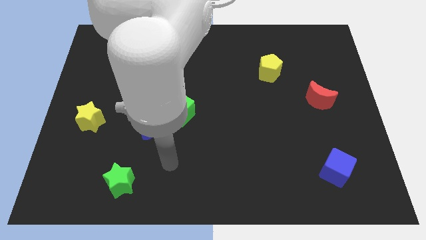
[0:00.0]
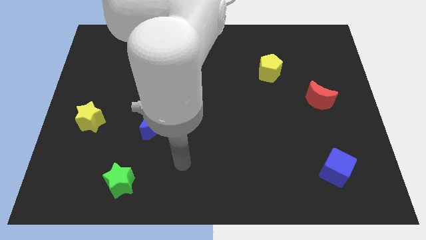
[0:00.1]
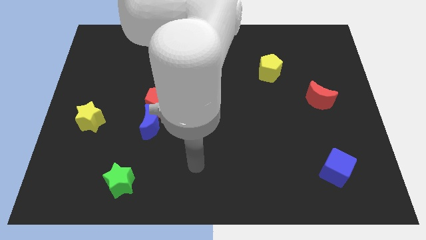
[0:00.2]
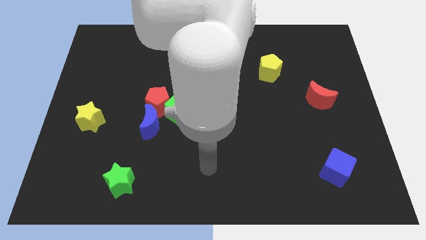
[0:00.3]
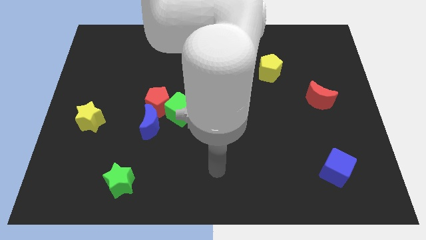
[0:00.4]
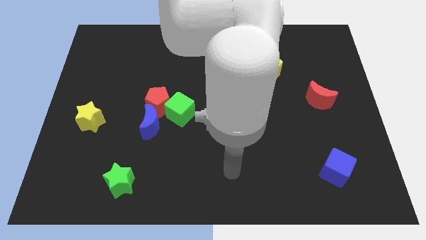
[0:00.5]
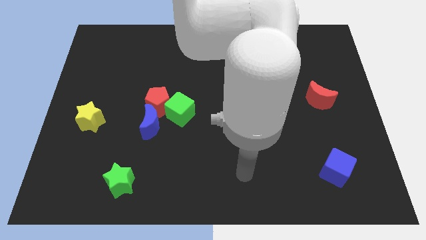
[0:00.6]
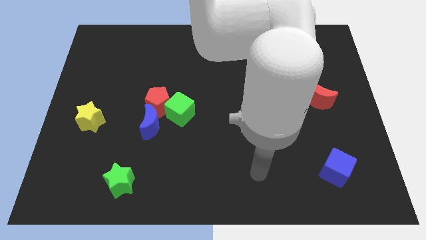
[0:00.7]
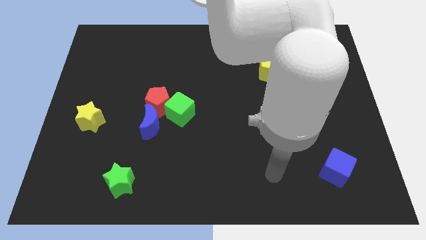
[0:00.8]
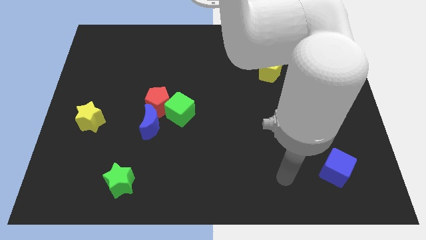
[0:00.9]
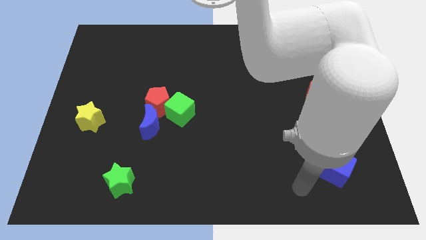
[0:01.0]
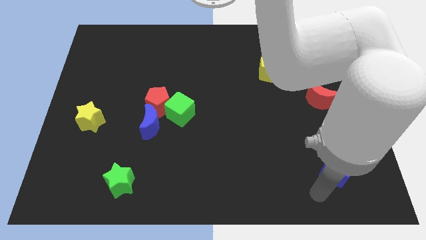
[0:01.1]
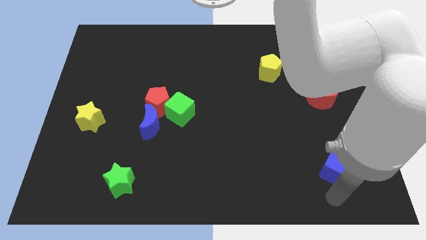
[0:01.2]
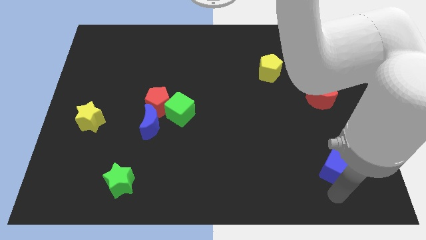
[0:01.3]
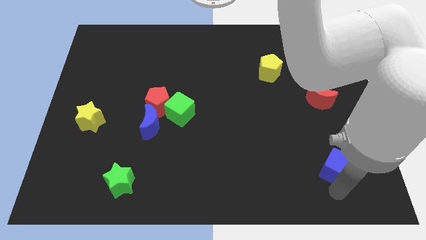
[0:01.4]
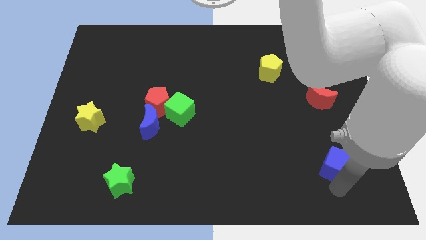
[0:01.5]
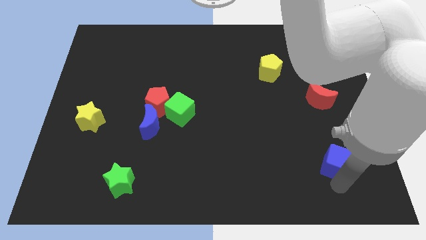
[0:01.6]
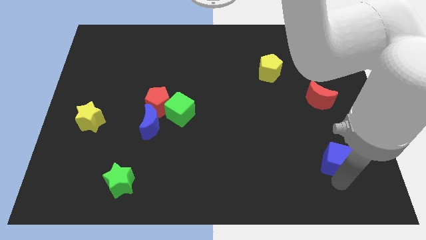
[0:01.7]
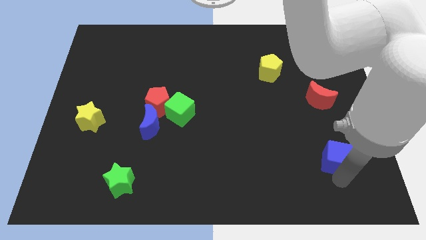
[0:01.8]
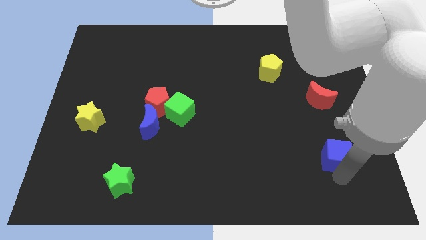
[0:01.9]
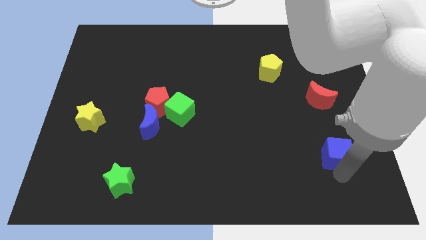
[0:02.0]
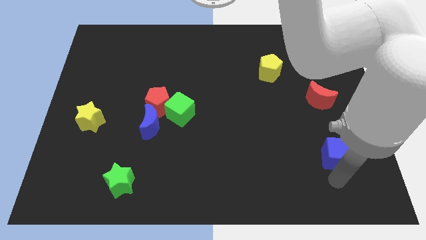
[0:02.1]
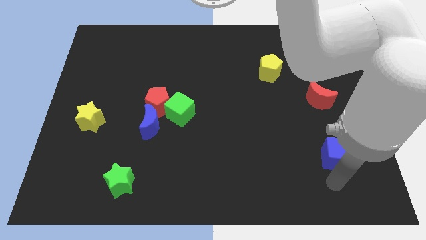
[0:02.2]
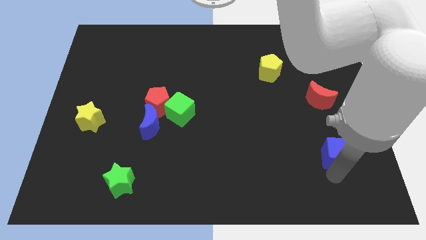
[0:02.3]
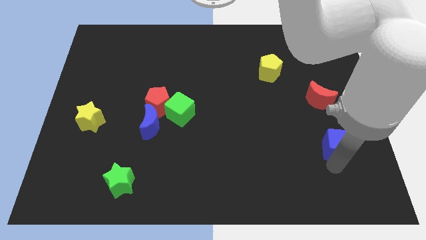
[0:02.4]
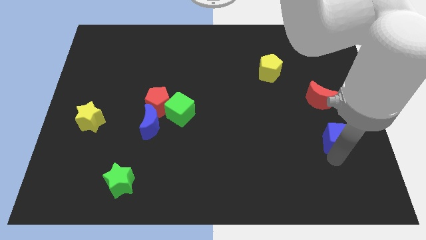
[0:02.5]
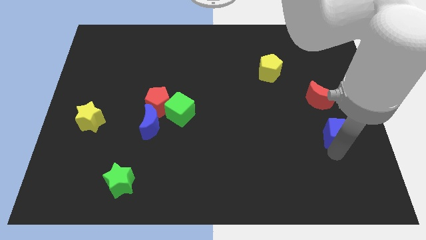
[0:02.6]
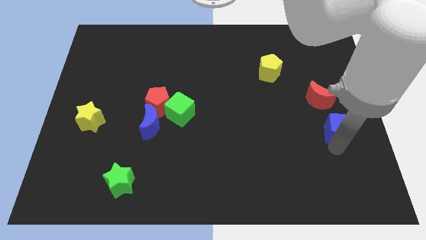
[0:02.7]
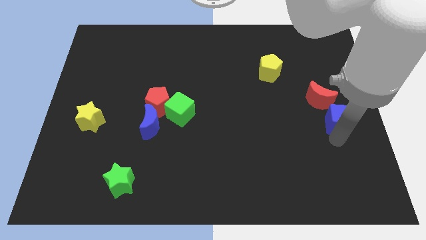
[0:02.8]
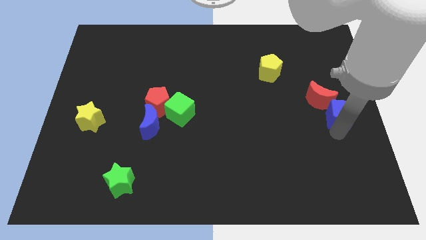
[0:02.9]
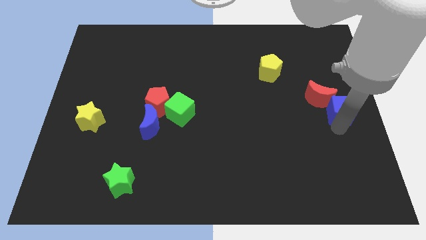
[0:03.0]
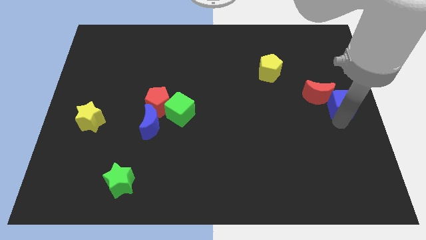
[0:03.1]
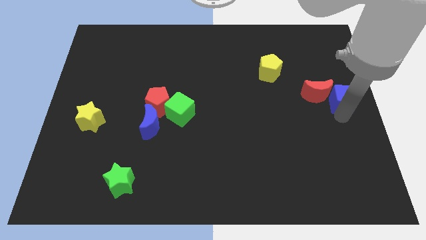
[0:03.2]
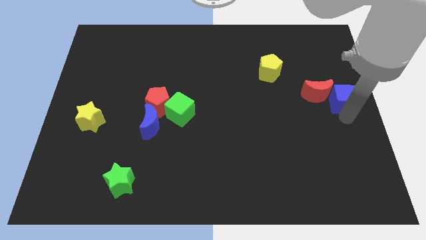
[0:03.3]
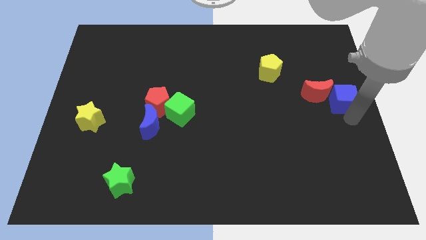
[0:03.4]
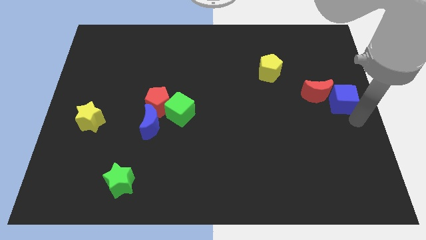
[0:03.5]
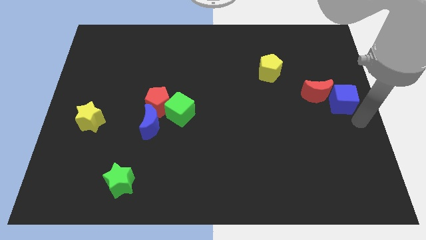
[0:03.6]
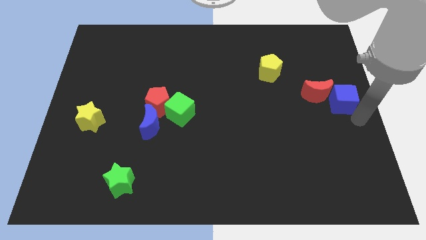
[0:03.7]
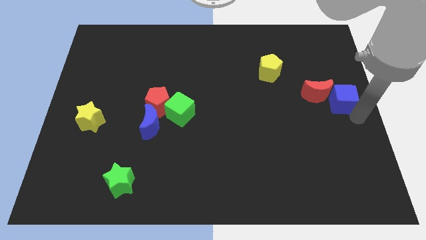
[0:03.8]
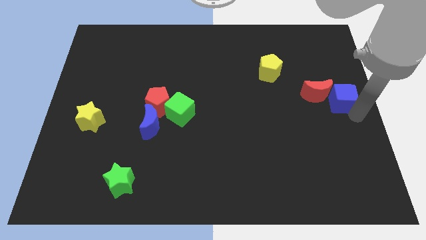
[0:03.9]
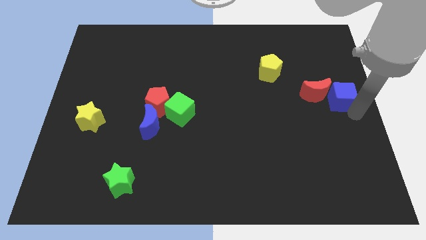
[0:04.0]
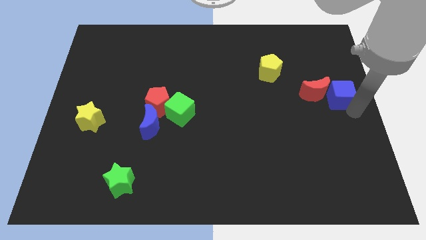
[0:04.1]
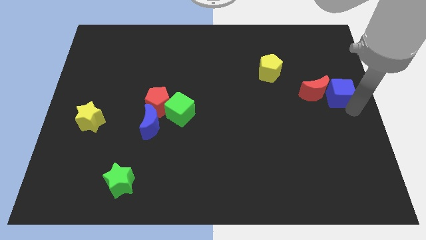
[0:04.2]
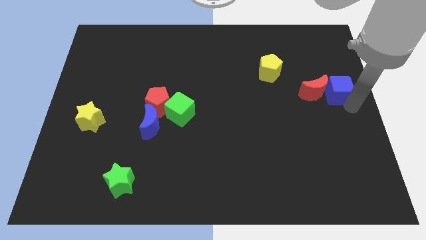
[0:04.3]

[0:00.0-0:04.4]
slide the blue cube upwards

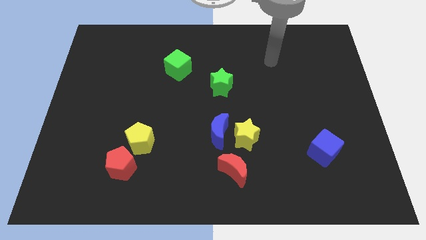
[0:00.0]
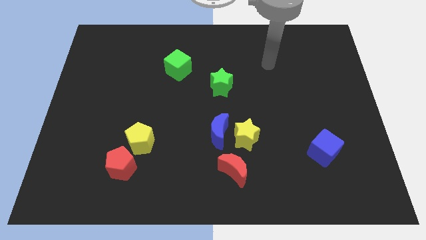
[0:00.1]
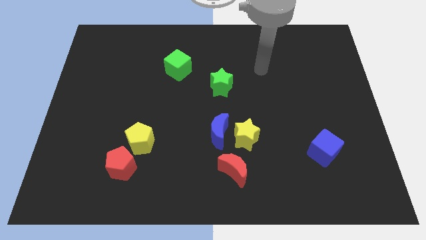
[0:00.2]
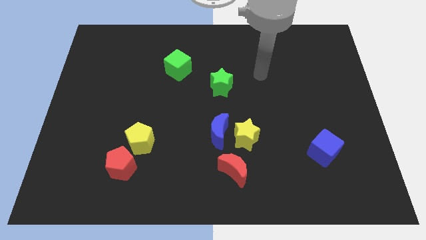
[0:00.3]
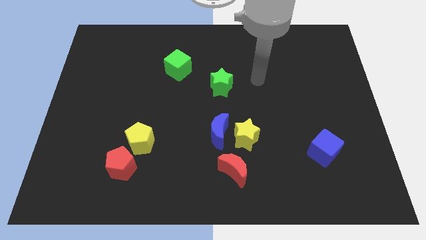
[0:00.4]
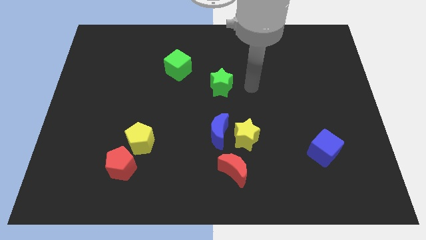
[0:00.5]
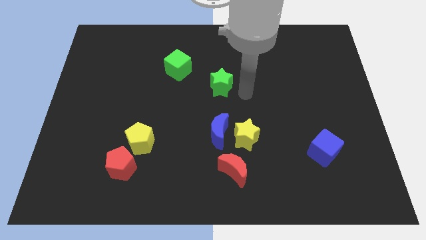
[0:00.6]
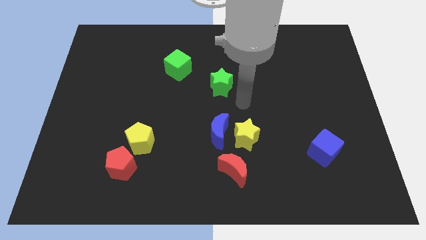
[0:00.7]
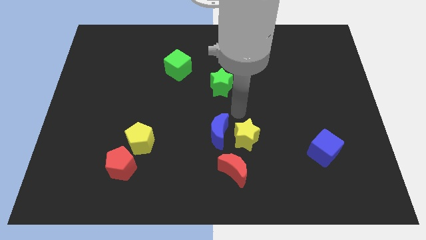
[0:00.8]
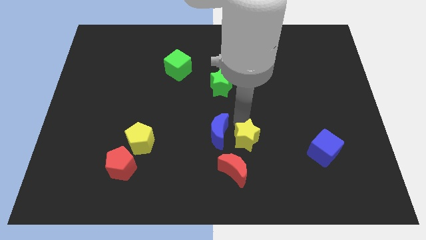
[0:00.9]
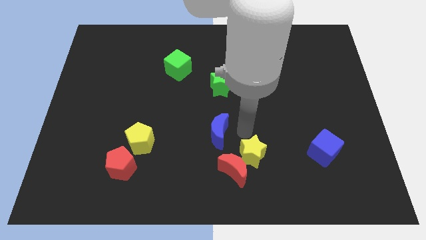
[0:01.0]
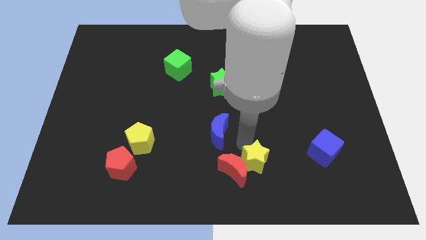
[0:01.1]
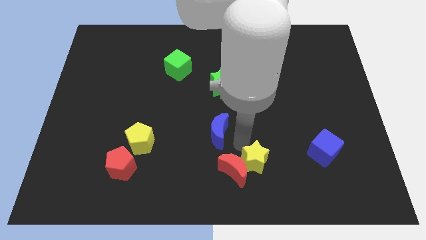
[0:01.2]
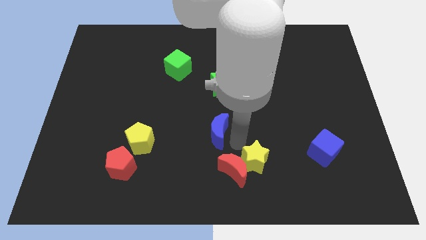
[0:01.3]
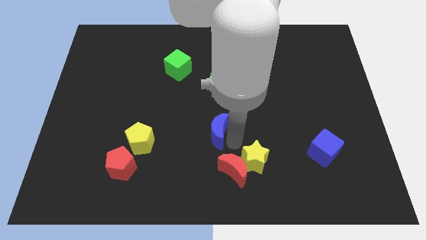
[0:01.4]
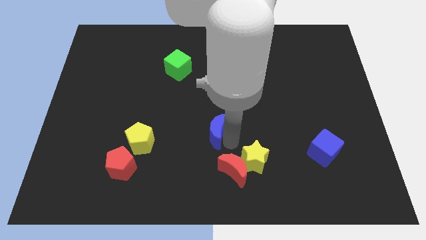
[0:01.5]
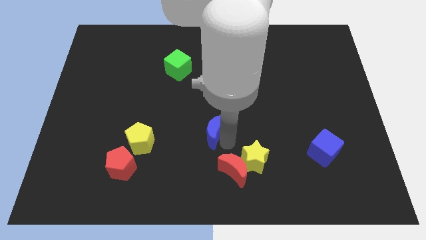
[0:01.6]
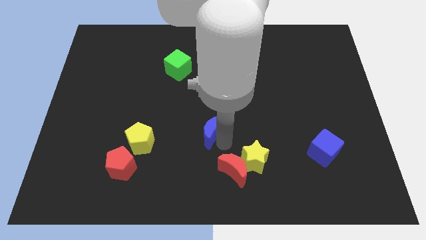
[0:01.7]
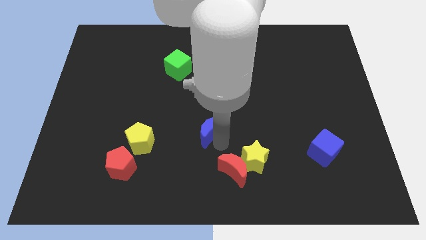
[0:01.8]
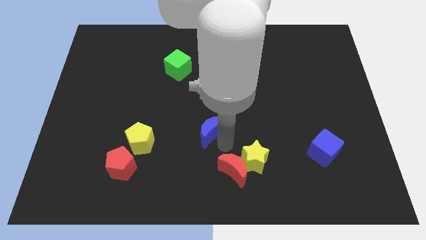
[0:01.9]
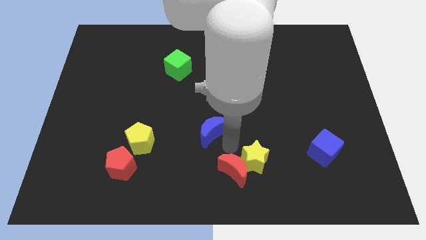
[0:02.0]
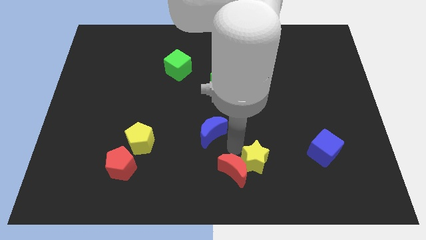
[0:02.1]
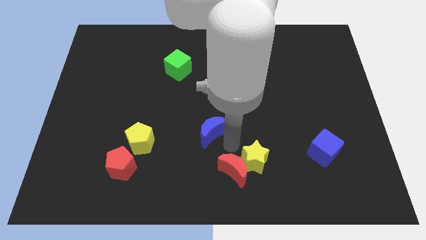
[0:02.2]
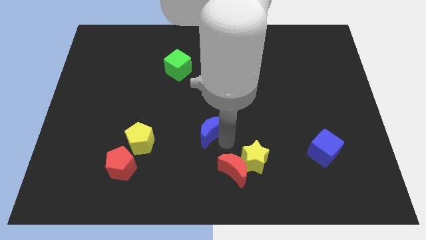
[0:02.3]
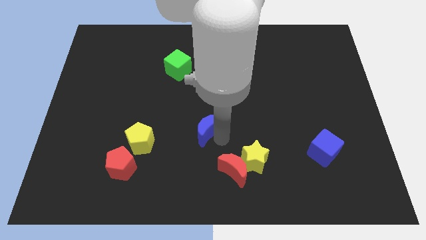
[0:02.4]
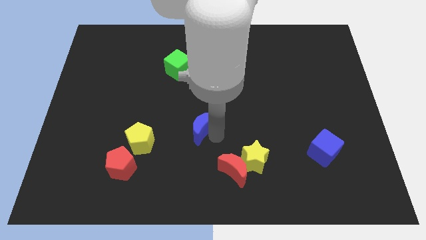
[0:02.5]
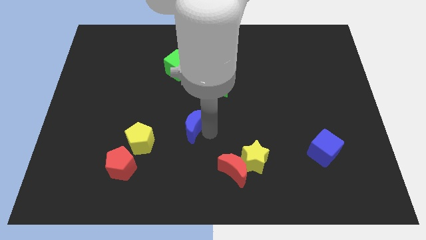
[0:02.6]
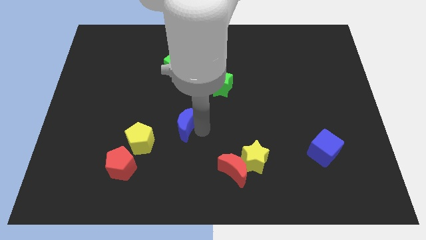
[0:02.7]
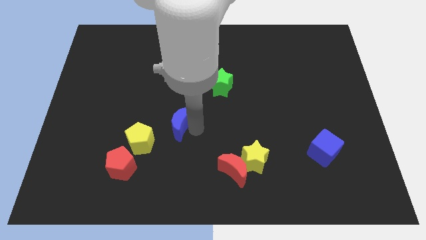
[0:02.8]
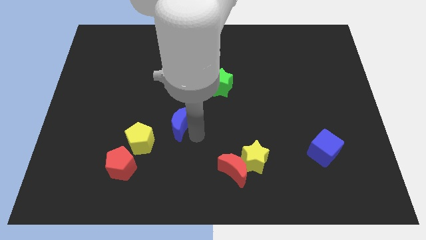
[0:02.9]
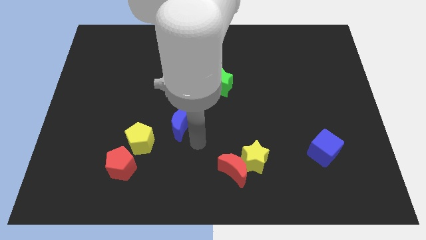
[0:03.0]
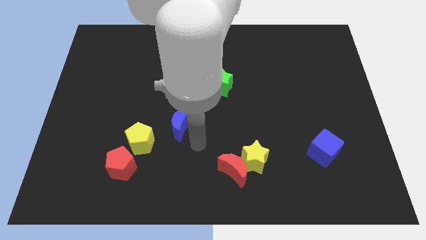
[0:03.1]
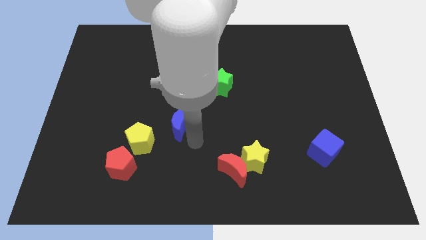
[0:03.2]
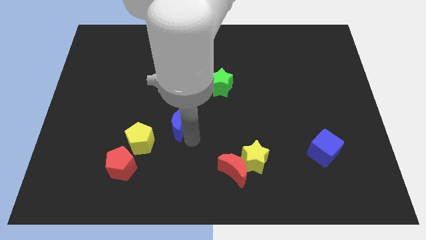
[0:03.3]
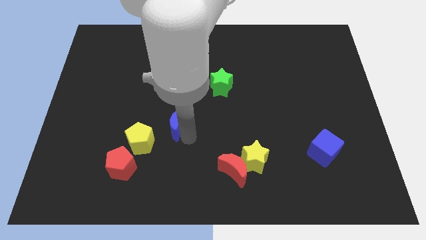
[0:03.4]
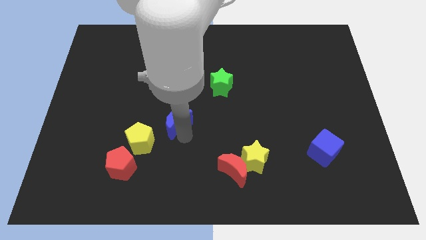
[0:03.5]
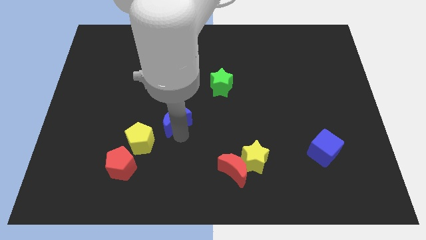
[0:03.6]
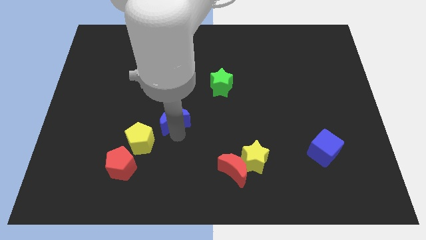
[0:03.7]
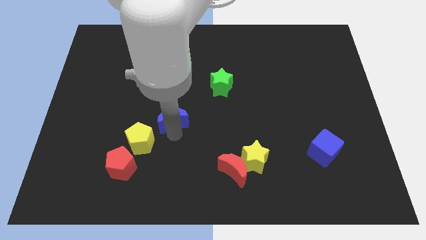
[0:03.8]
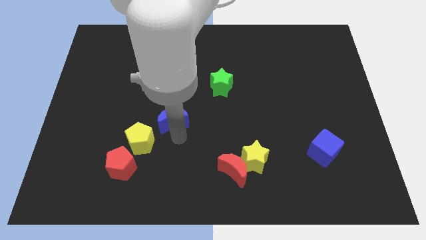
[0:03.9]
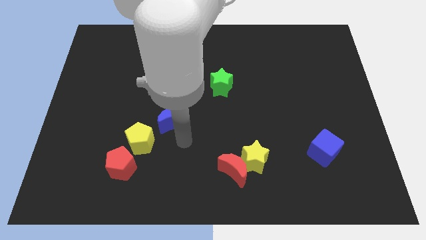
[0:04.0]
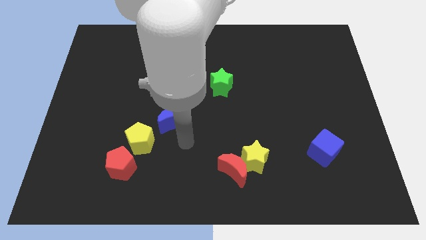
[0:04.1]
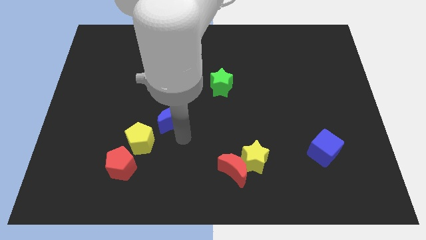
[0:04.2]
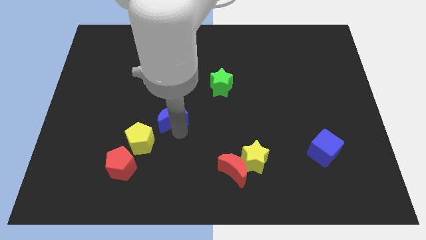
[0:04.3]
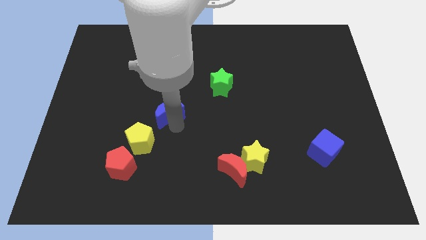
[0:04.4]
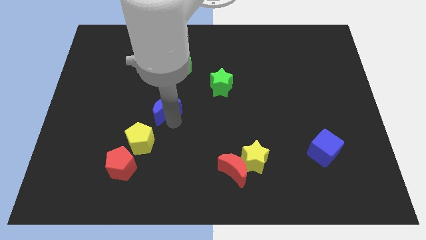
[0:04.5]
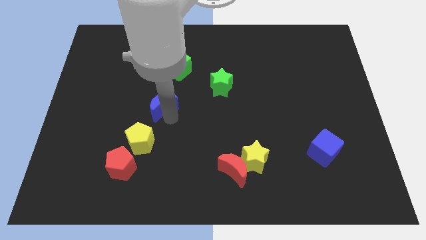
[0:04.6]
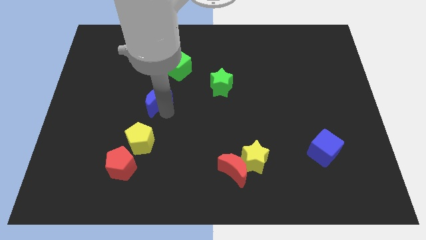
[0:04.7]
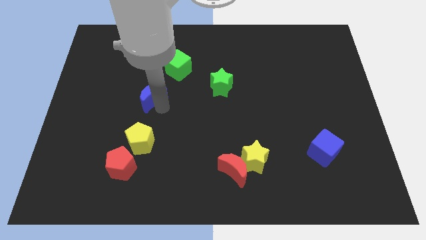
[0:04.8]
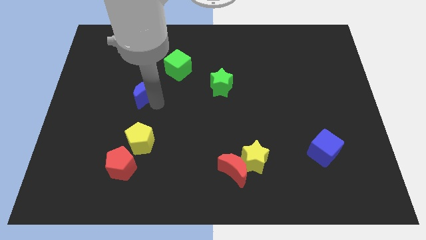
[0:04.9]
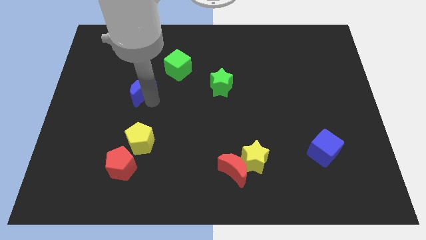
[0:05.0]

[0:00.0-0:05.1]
slide the blue moon upwards and to the left diagonally
